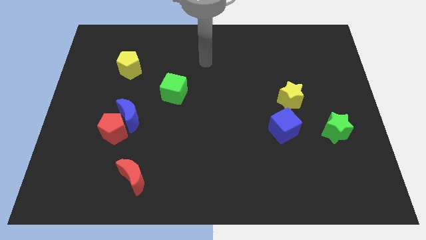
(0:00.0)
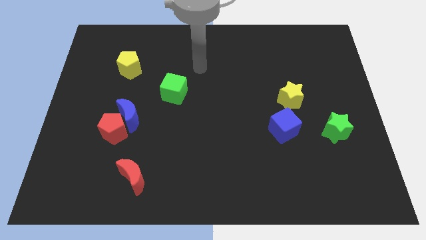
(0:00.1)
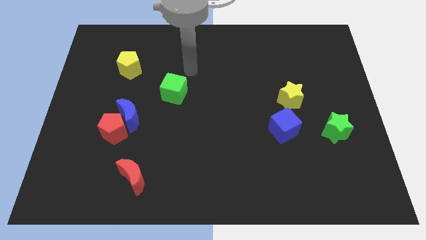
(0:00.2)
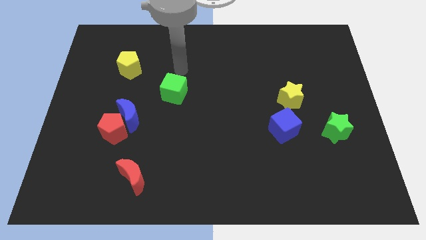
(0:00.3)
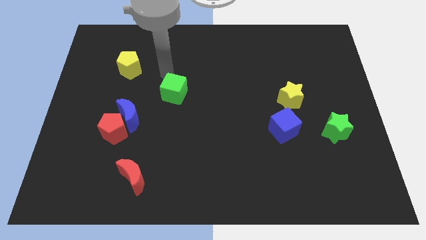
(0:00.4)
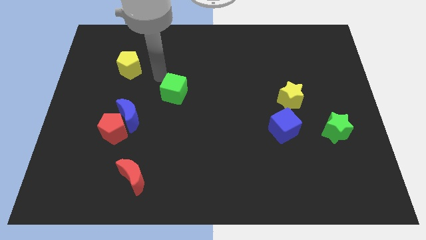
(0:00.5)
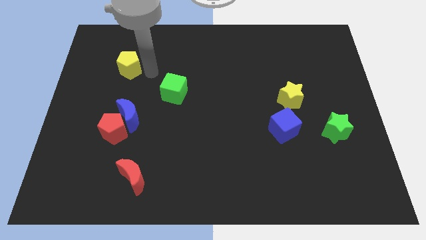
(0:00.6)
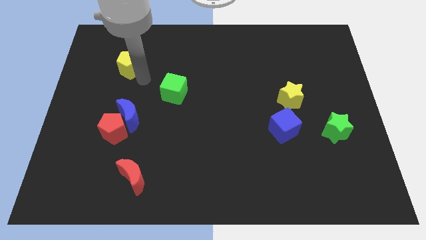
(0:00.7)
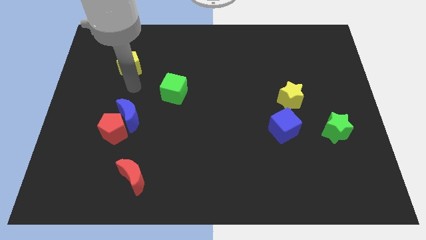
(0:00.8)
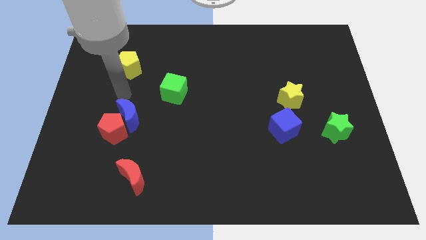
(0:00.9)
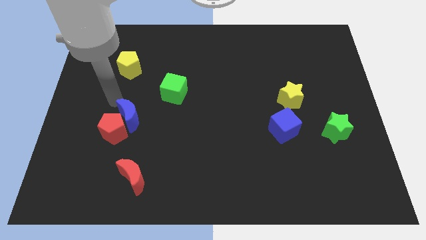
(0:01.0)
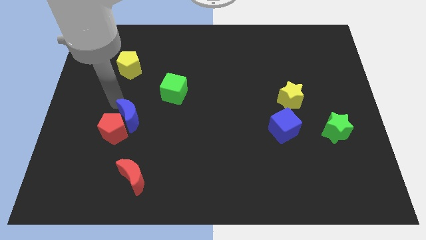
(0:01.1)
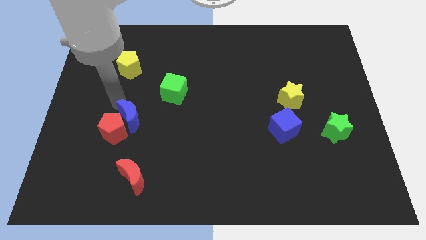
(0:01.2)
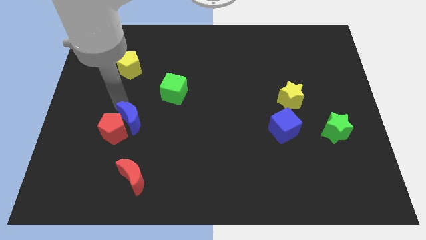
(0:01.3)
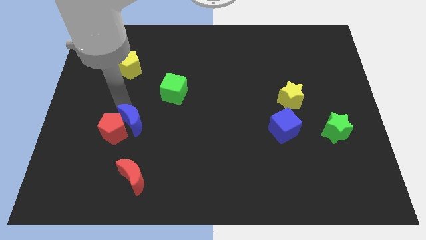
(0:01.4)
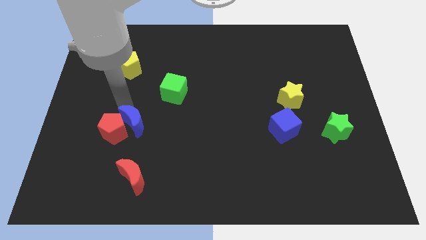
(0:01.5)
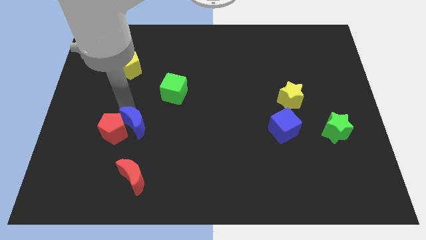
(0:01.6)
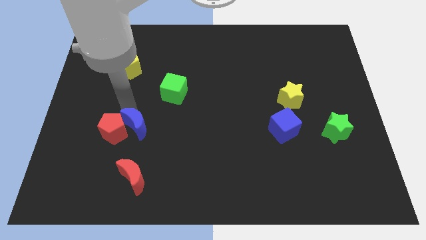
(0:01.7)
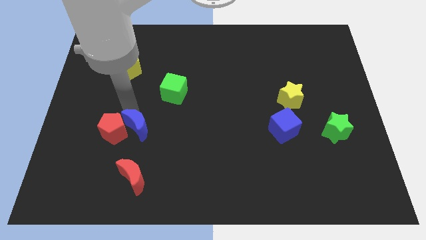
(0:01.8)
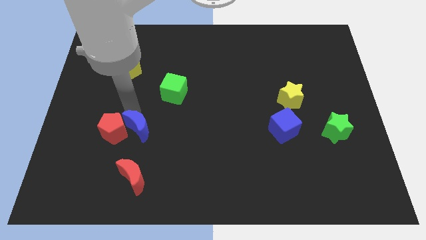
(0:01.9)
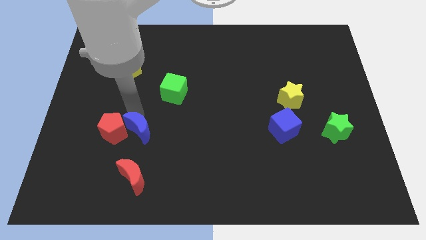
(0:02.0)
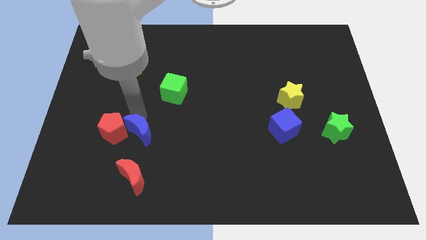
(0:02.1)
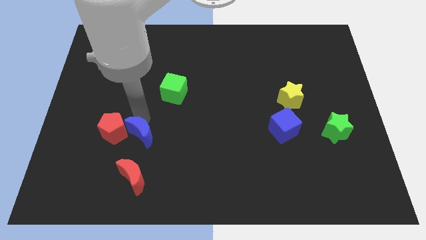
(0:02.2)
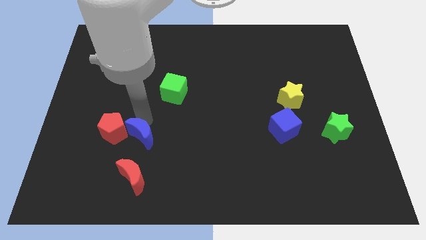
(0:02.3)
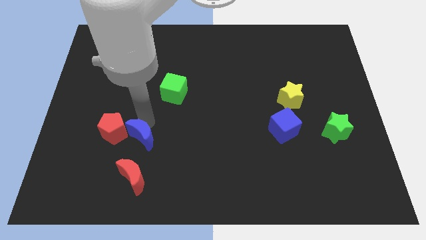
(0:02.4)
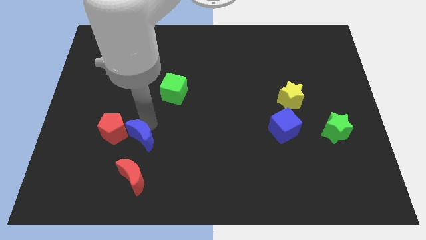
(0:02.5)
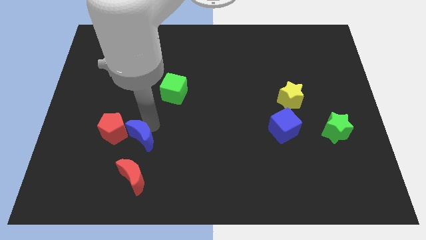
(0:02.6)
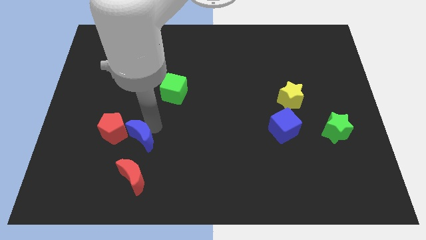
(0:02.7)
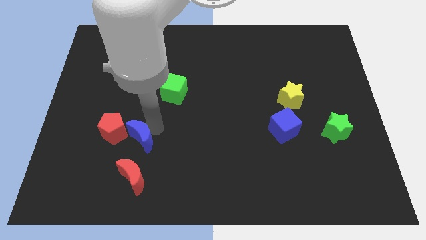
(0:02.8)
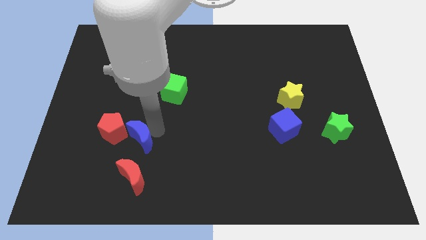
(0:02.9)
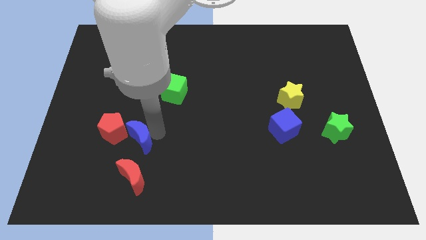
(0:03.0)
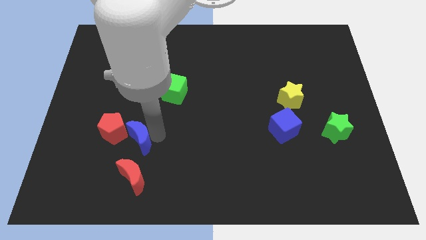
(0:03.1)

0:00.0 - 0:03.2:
move the blue moon a little bit diagonally downwards and to the right

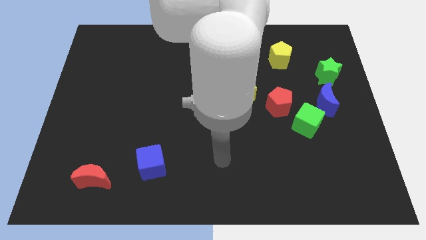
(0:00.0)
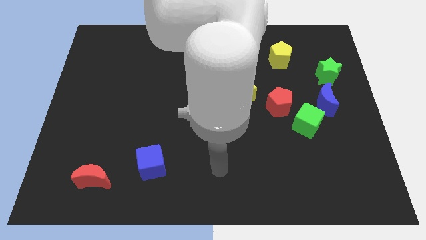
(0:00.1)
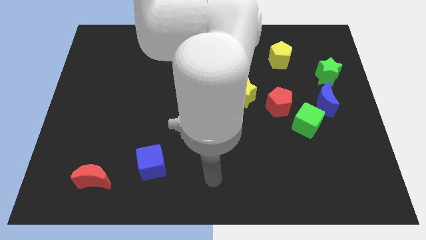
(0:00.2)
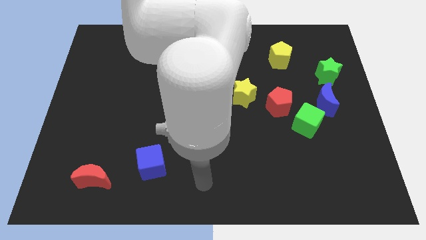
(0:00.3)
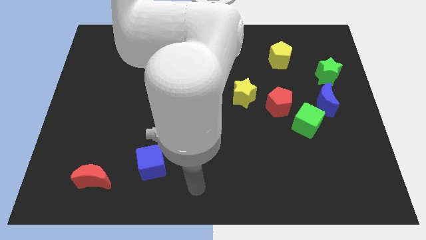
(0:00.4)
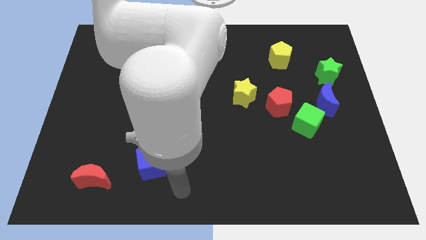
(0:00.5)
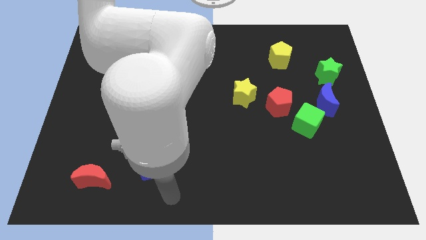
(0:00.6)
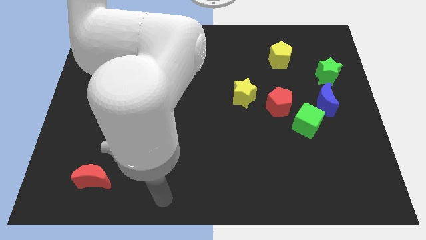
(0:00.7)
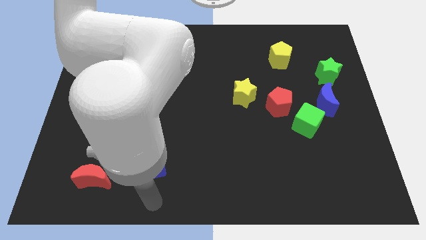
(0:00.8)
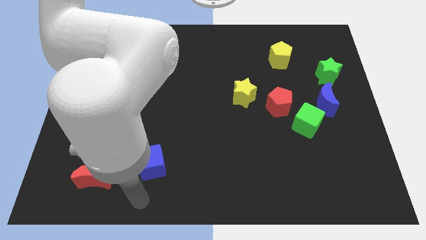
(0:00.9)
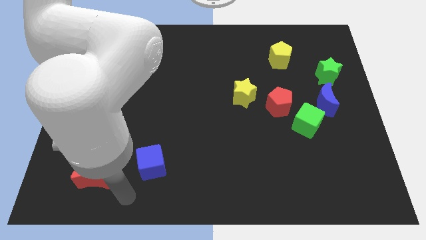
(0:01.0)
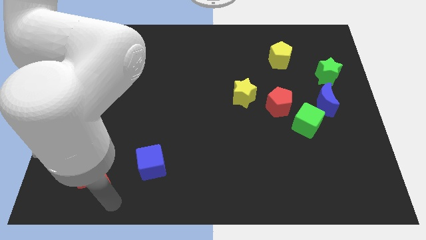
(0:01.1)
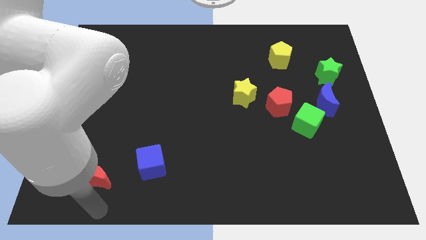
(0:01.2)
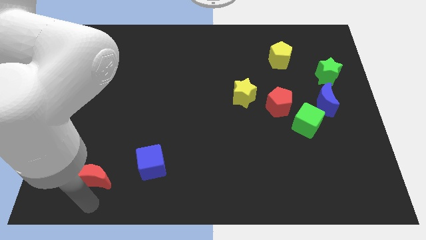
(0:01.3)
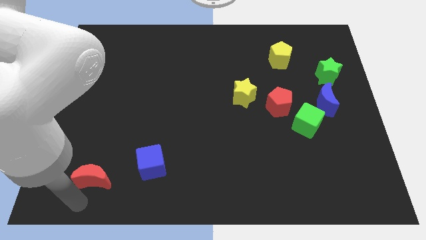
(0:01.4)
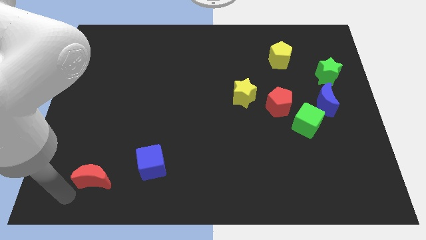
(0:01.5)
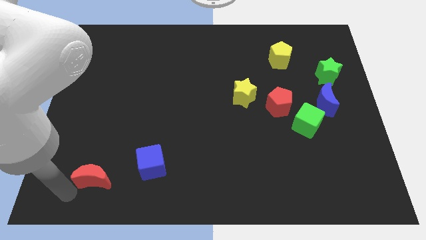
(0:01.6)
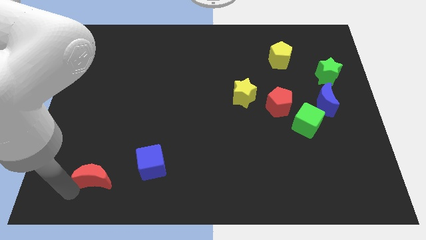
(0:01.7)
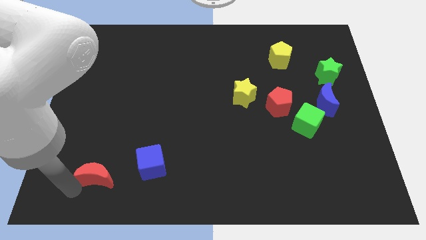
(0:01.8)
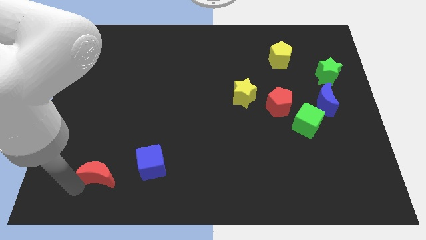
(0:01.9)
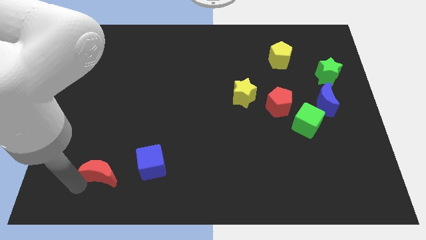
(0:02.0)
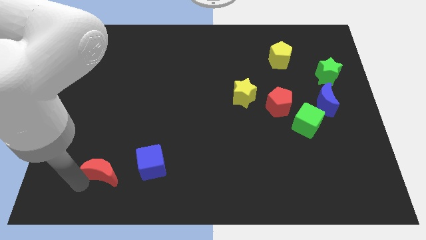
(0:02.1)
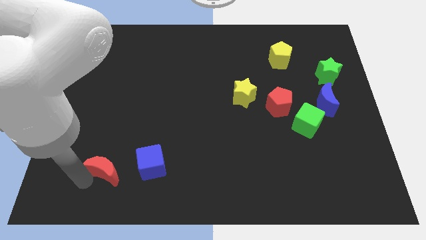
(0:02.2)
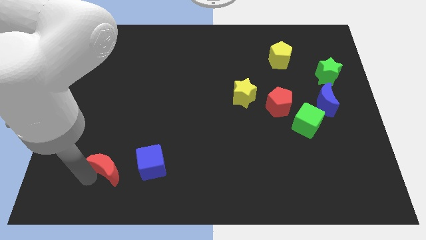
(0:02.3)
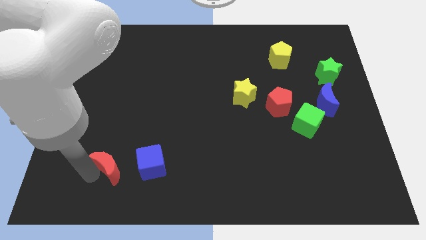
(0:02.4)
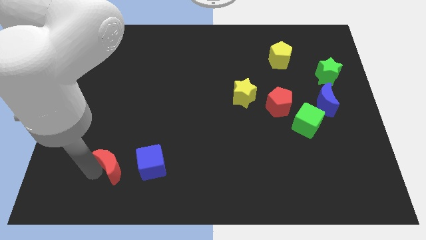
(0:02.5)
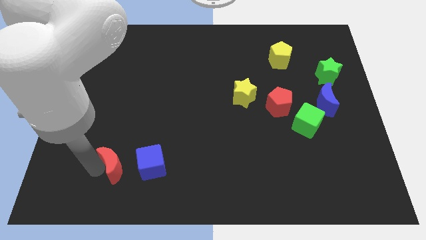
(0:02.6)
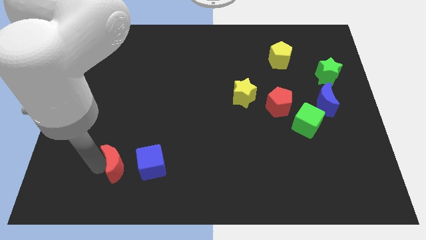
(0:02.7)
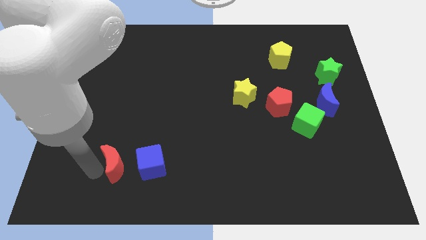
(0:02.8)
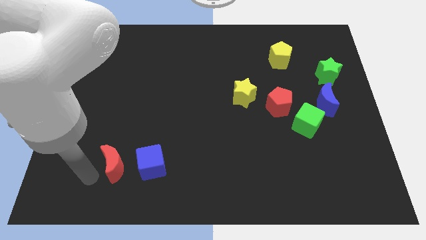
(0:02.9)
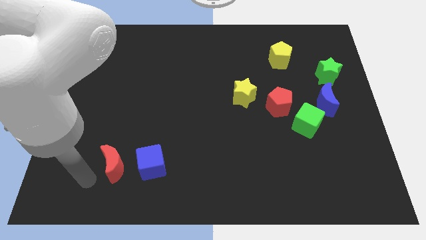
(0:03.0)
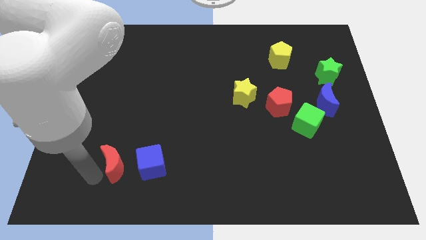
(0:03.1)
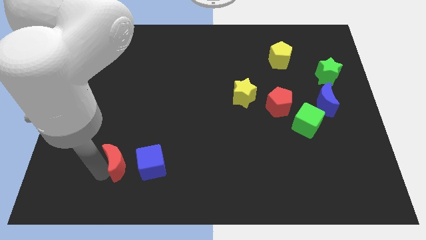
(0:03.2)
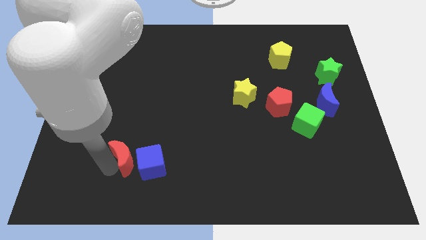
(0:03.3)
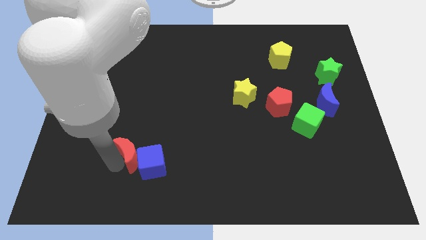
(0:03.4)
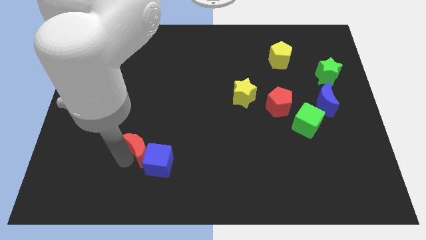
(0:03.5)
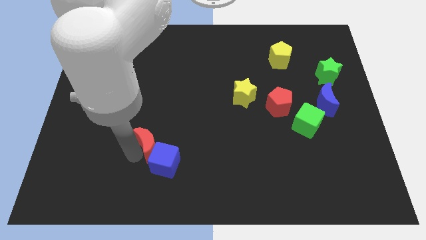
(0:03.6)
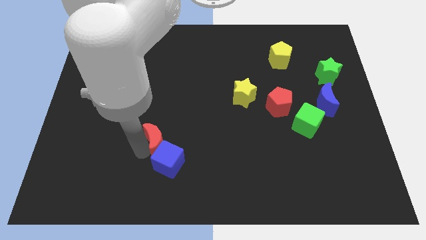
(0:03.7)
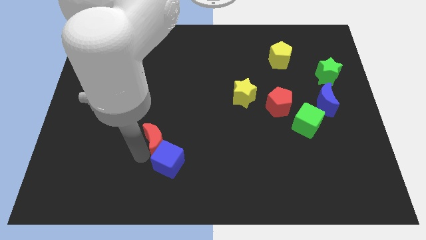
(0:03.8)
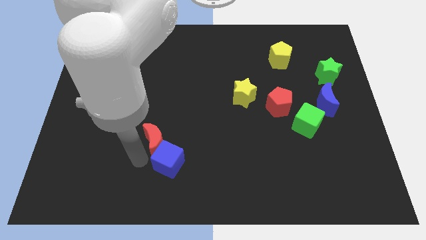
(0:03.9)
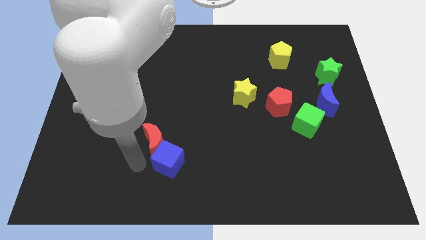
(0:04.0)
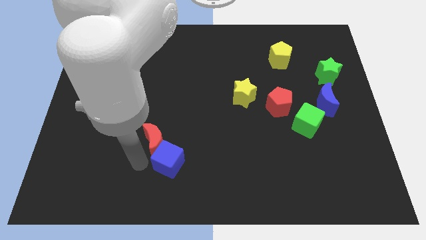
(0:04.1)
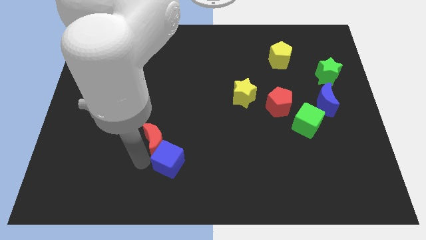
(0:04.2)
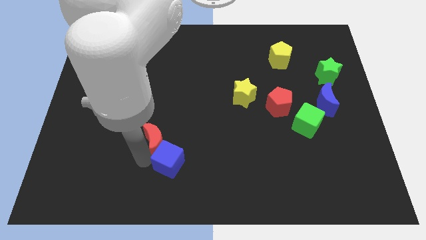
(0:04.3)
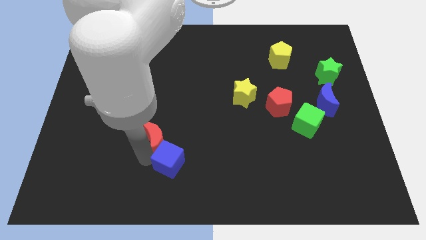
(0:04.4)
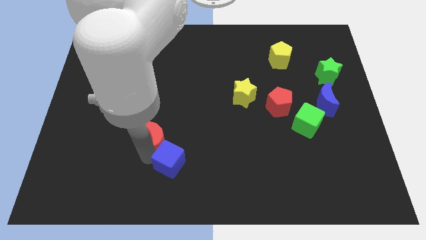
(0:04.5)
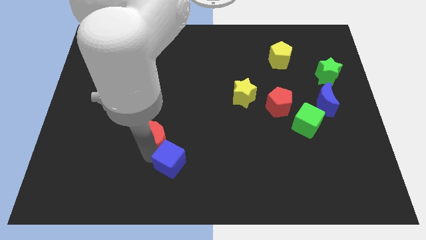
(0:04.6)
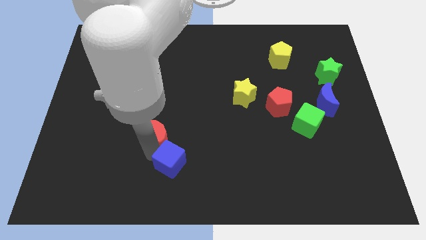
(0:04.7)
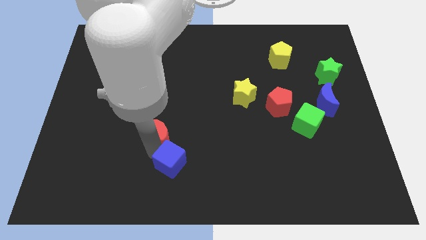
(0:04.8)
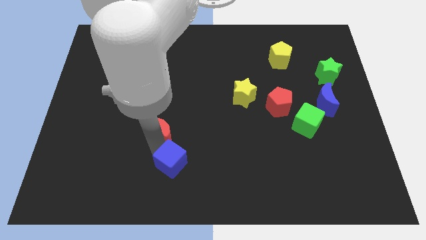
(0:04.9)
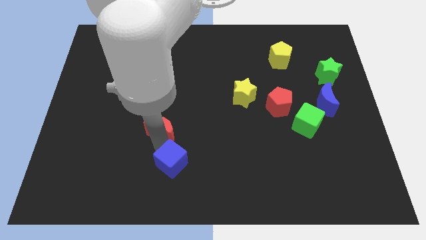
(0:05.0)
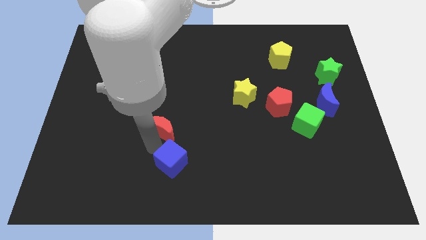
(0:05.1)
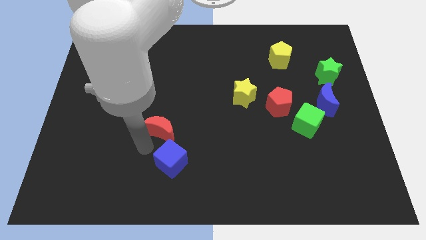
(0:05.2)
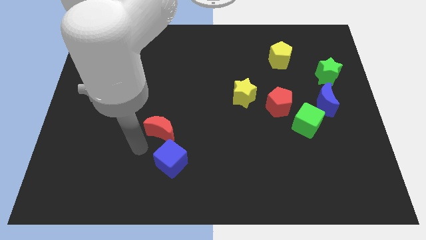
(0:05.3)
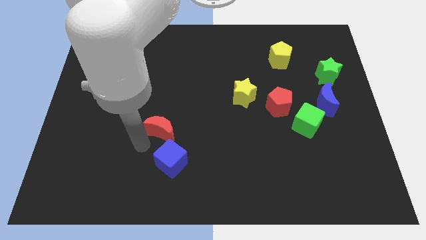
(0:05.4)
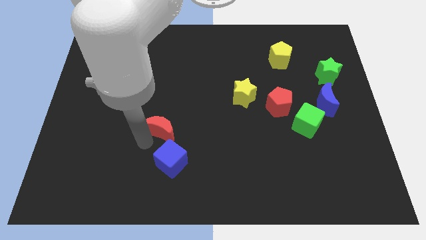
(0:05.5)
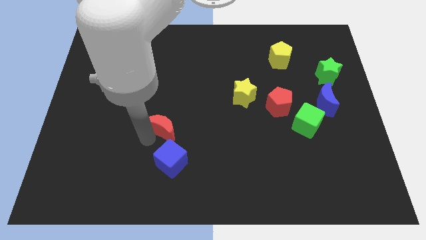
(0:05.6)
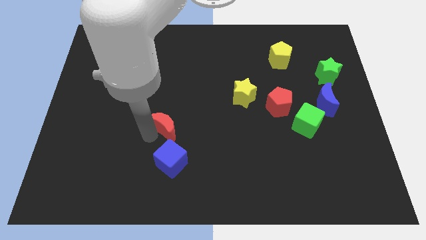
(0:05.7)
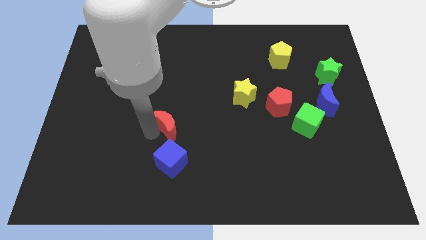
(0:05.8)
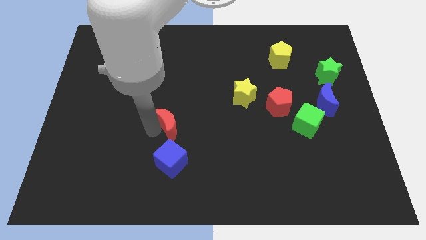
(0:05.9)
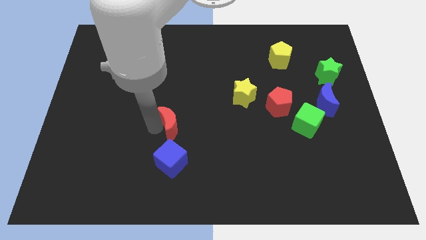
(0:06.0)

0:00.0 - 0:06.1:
push the red moon diagonally up and right
